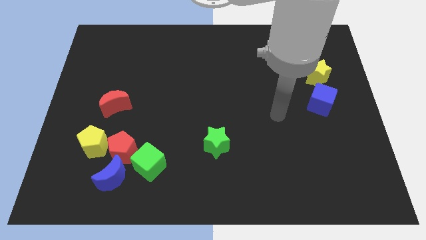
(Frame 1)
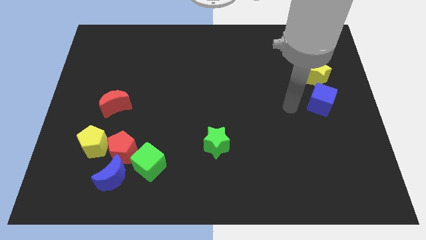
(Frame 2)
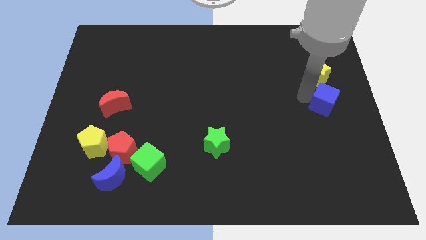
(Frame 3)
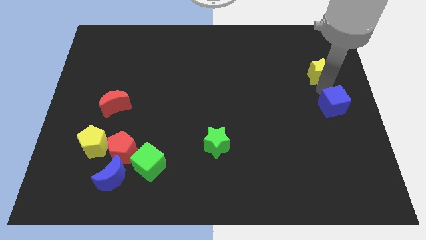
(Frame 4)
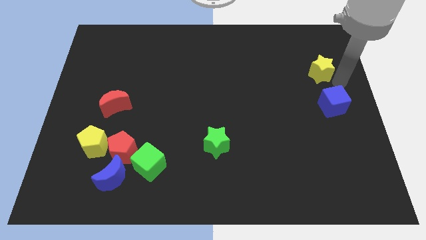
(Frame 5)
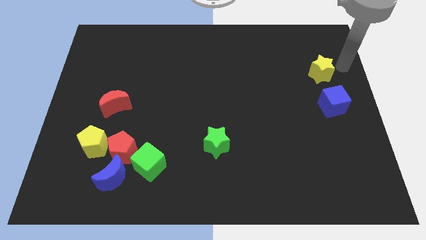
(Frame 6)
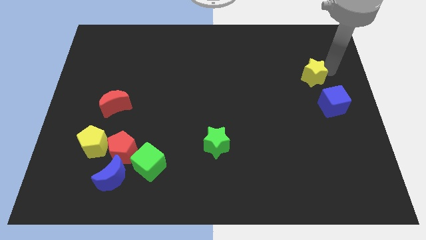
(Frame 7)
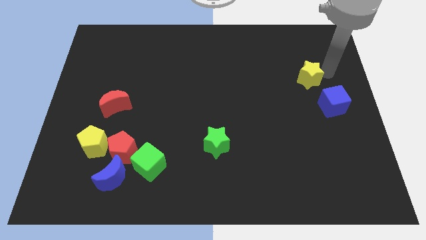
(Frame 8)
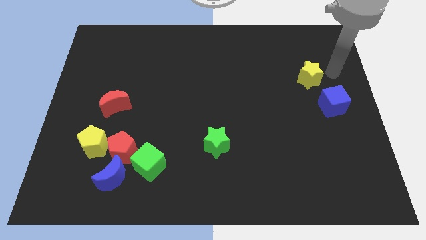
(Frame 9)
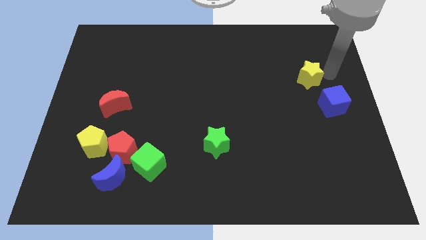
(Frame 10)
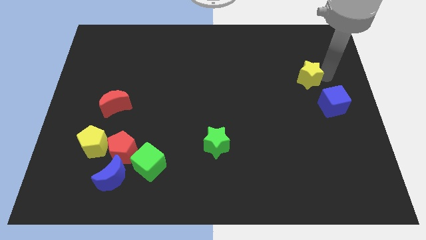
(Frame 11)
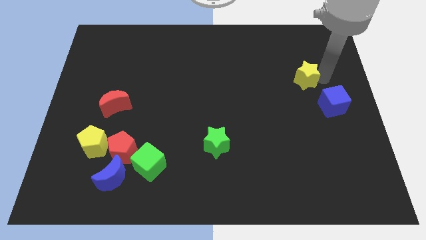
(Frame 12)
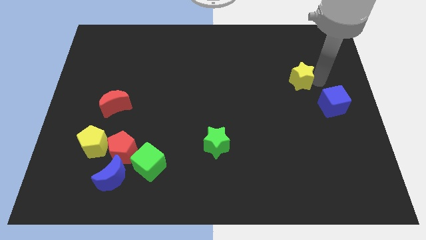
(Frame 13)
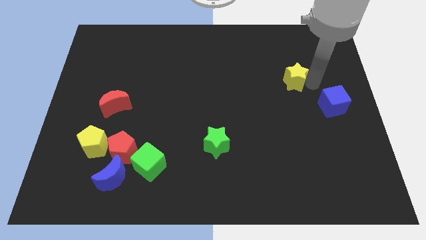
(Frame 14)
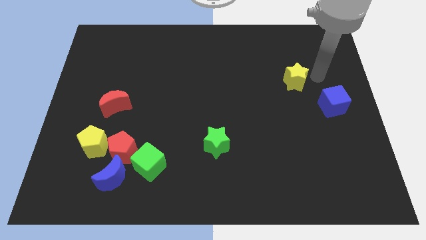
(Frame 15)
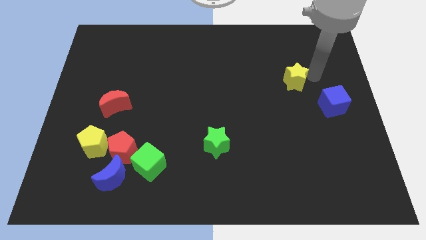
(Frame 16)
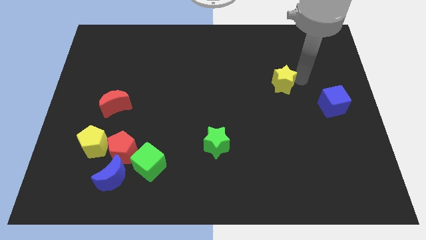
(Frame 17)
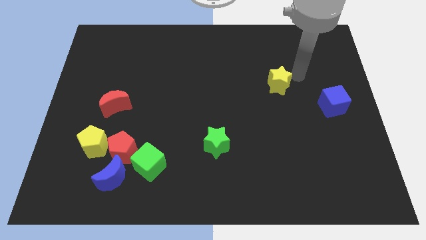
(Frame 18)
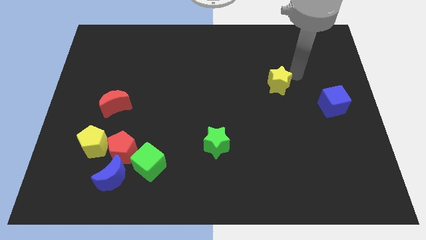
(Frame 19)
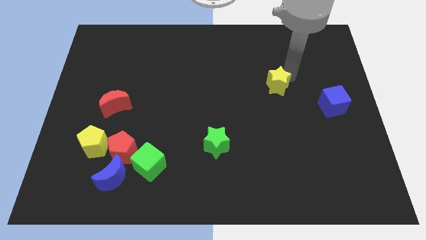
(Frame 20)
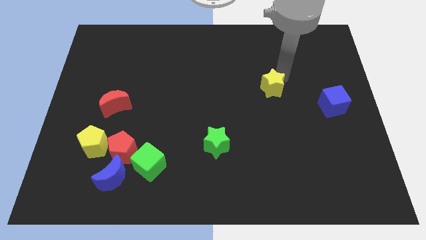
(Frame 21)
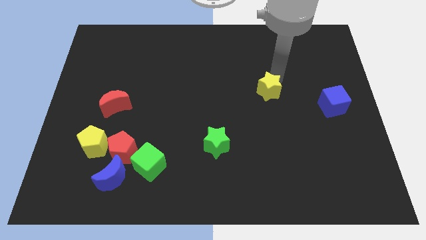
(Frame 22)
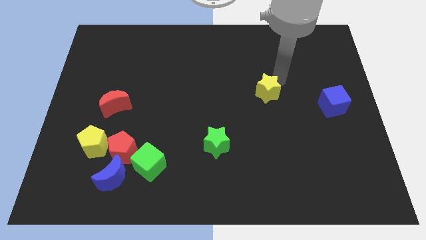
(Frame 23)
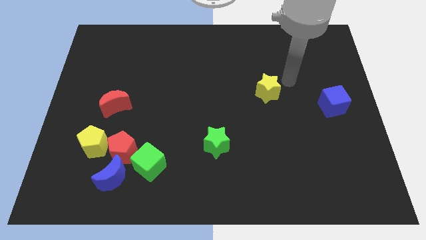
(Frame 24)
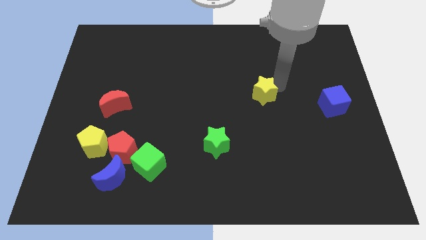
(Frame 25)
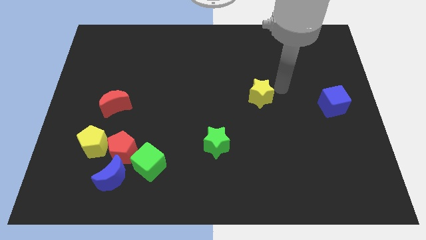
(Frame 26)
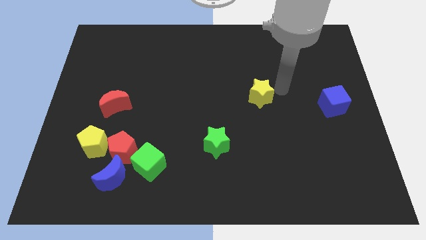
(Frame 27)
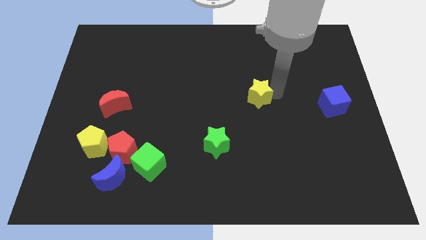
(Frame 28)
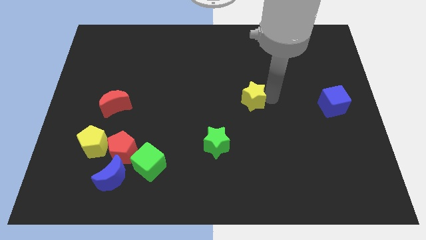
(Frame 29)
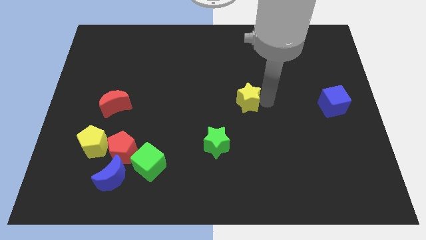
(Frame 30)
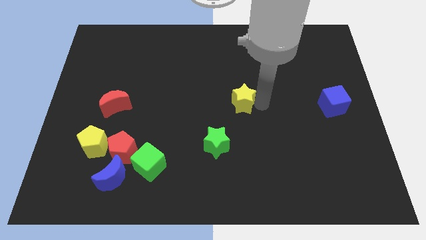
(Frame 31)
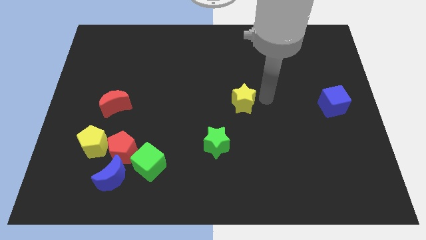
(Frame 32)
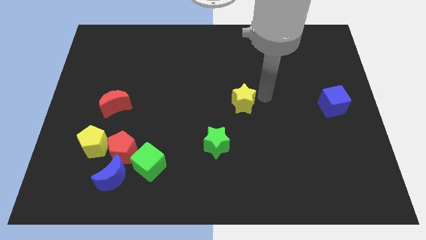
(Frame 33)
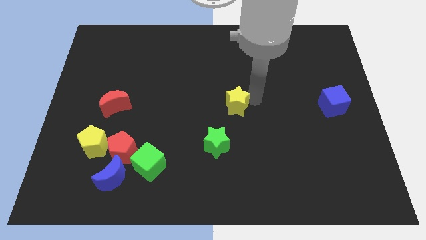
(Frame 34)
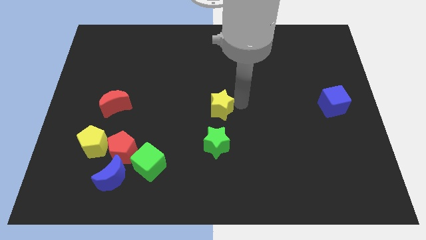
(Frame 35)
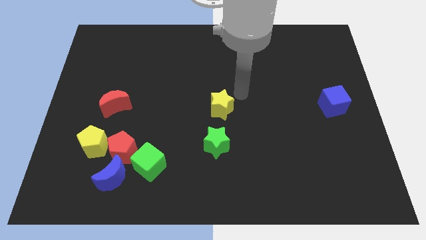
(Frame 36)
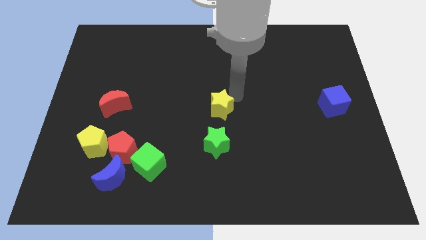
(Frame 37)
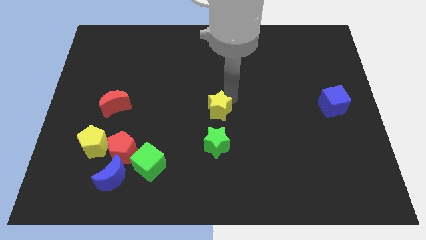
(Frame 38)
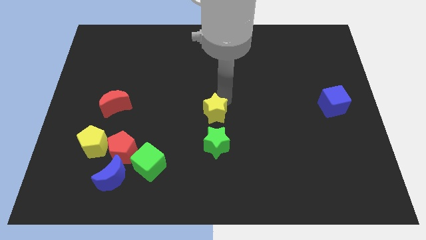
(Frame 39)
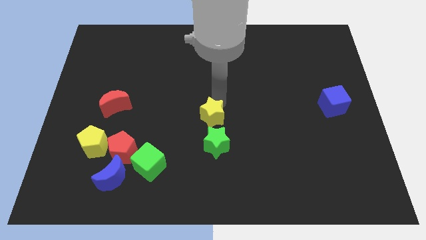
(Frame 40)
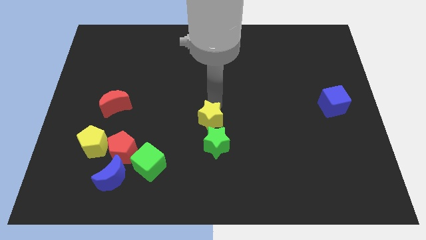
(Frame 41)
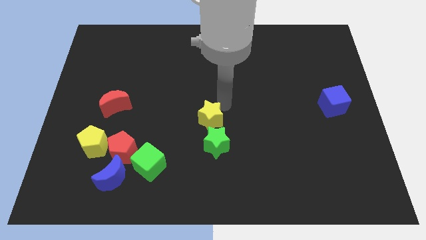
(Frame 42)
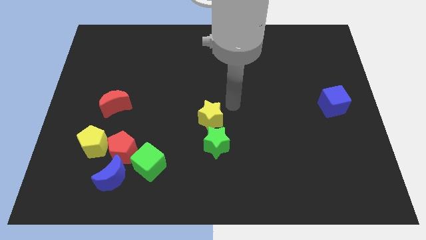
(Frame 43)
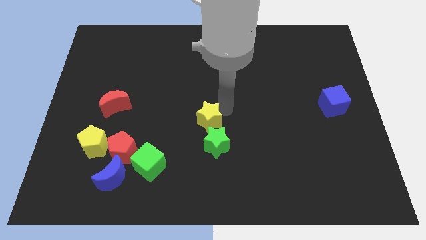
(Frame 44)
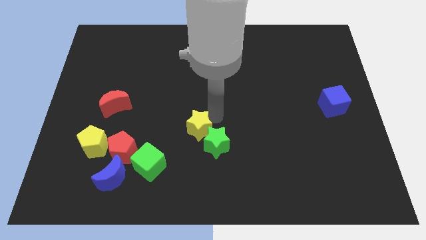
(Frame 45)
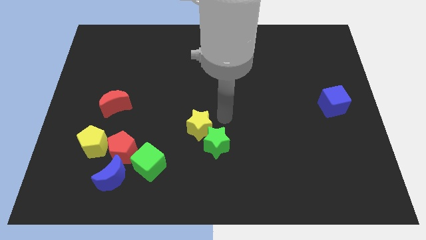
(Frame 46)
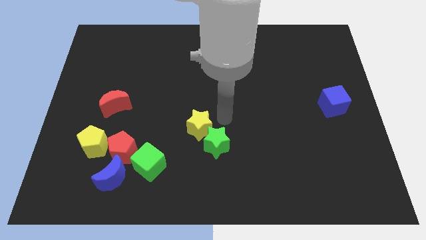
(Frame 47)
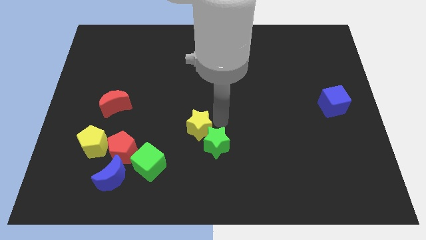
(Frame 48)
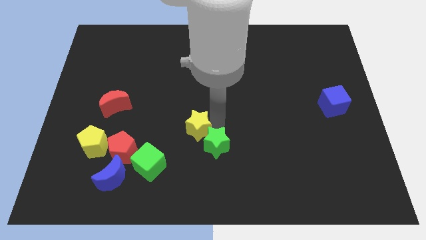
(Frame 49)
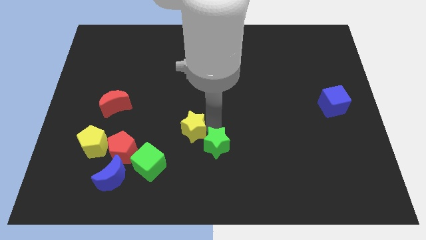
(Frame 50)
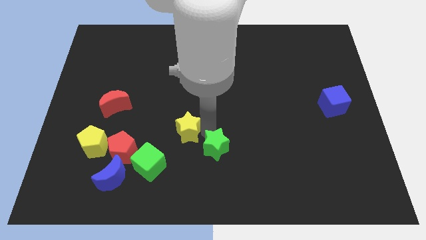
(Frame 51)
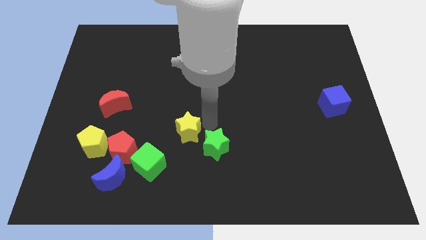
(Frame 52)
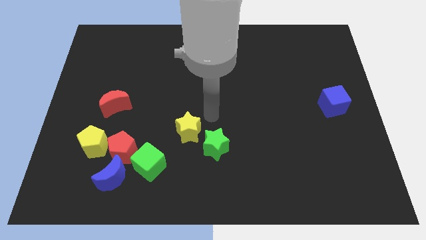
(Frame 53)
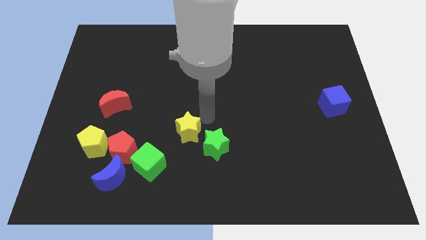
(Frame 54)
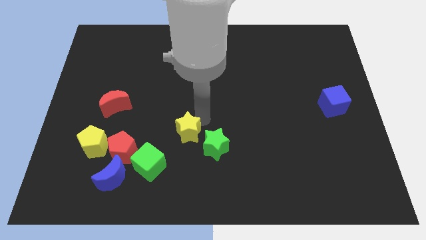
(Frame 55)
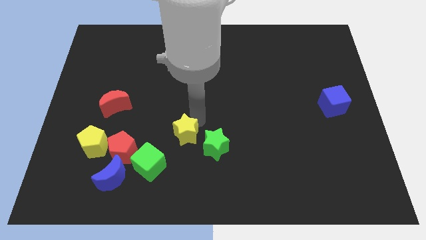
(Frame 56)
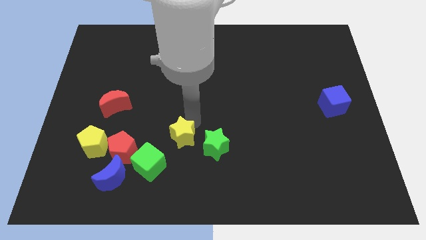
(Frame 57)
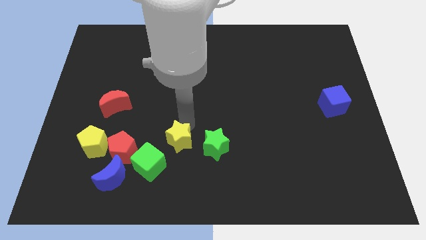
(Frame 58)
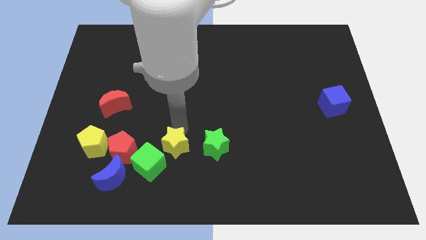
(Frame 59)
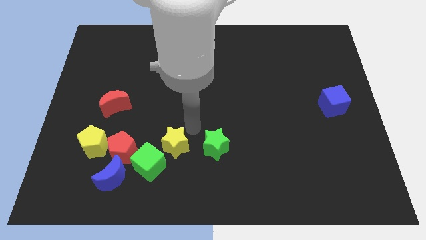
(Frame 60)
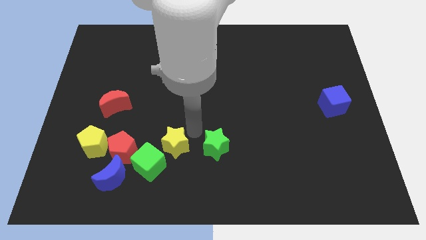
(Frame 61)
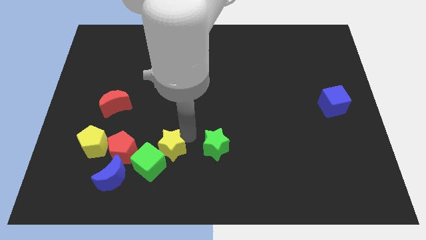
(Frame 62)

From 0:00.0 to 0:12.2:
move the yellow star next to the green cube

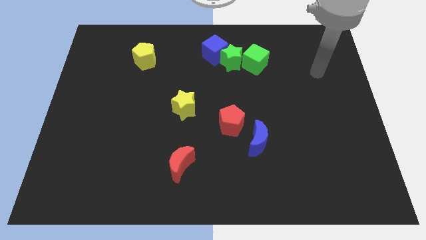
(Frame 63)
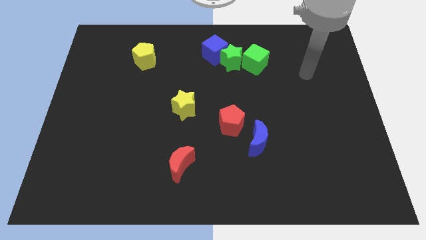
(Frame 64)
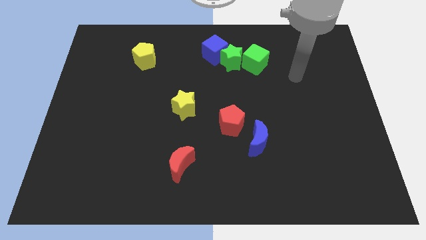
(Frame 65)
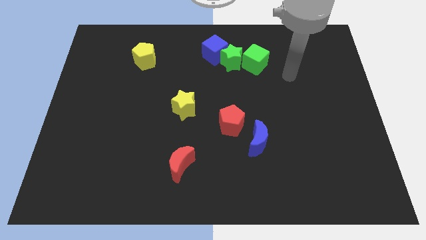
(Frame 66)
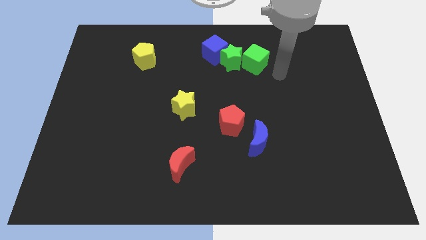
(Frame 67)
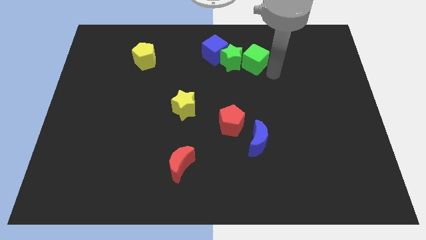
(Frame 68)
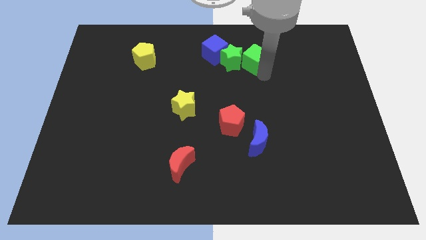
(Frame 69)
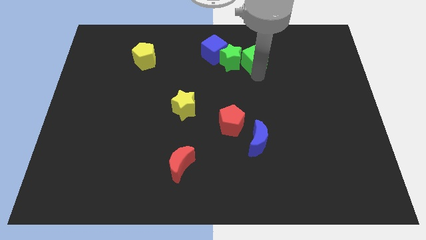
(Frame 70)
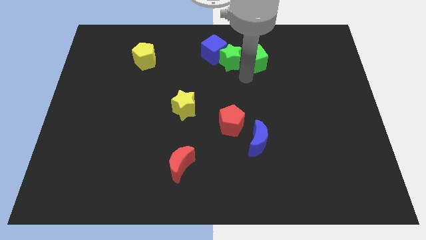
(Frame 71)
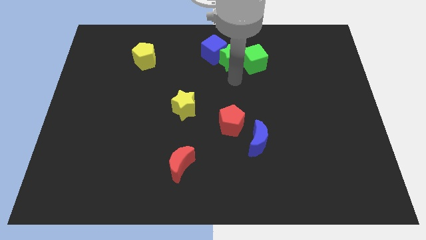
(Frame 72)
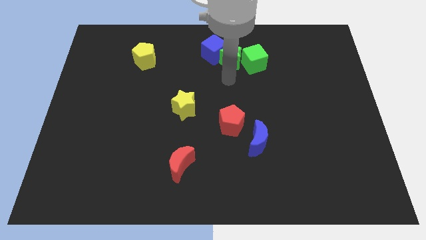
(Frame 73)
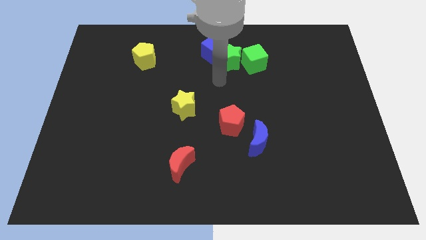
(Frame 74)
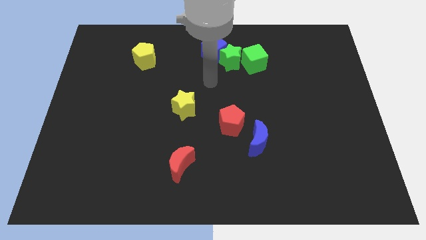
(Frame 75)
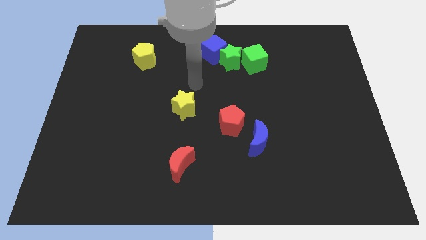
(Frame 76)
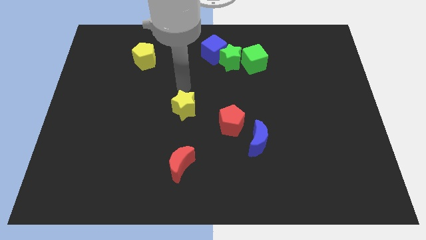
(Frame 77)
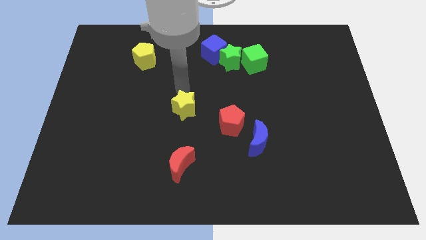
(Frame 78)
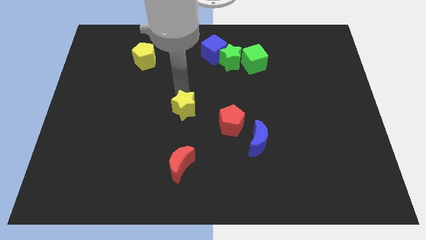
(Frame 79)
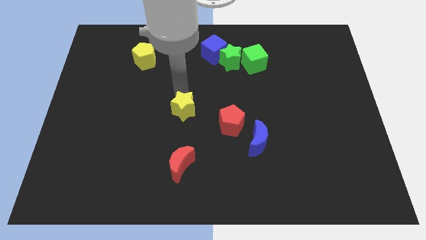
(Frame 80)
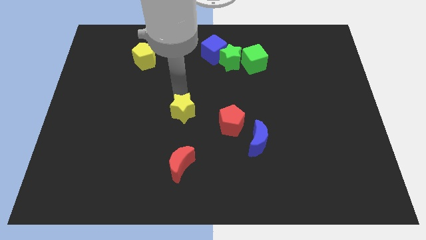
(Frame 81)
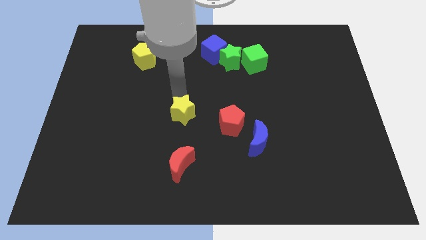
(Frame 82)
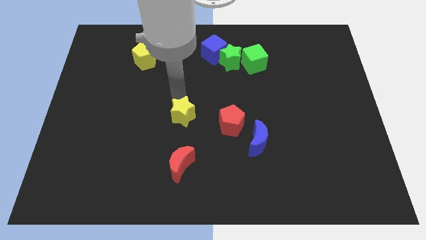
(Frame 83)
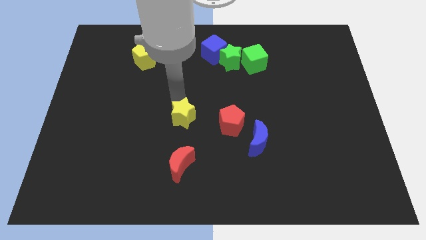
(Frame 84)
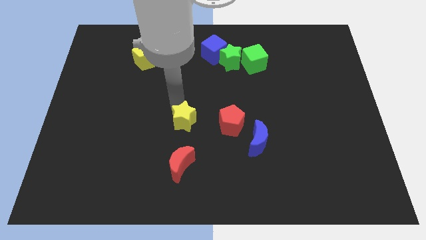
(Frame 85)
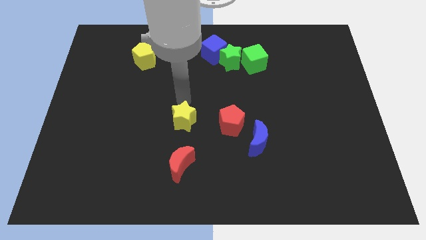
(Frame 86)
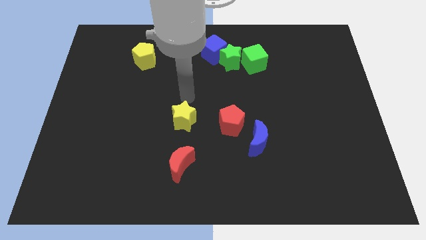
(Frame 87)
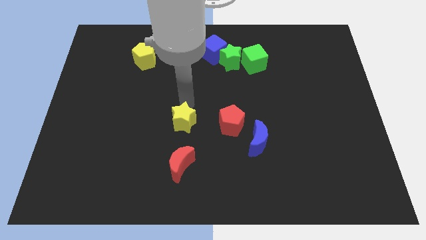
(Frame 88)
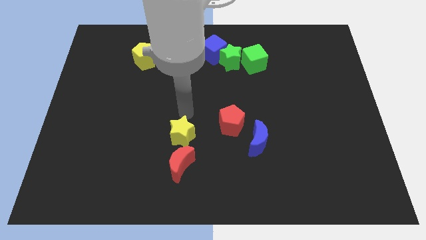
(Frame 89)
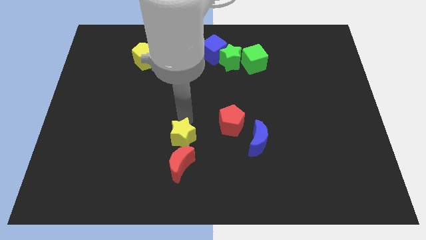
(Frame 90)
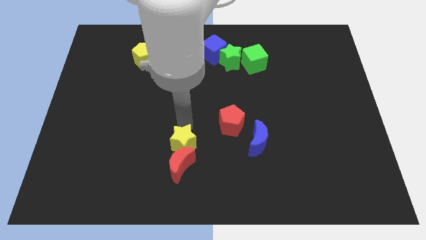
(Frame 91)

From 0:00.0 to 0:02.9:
push the yellow star next to the red moon
